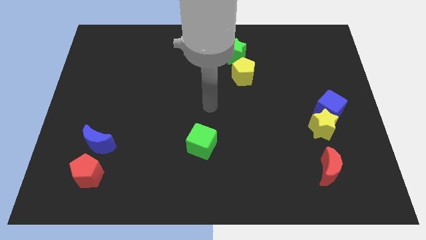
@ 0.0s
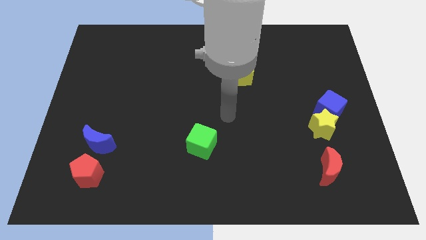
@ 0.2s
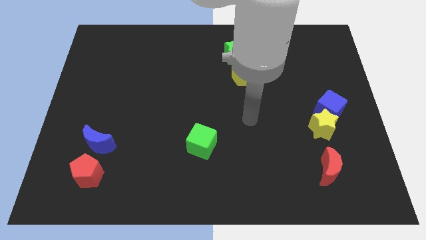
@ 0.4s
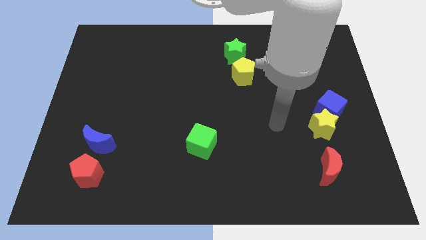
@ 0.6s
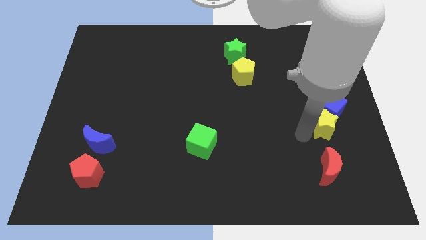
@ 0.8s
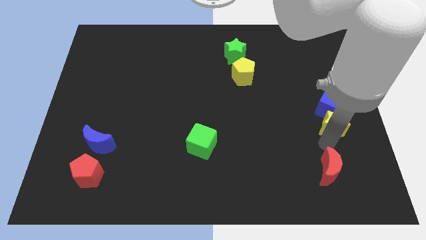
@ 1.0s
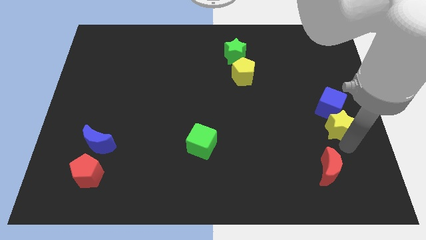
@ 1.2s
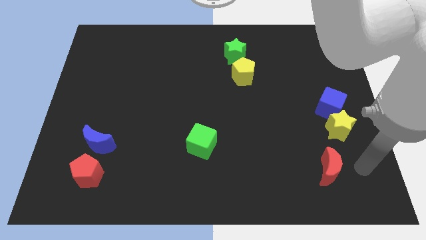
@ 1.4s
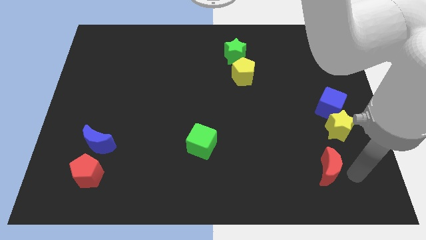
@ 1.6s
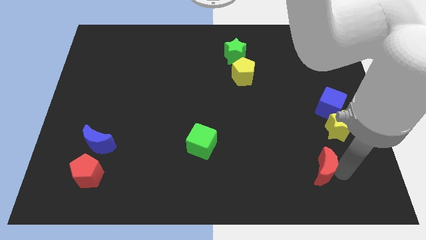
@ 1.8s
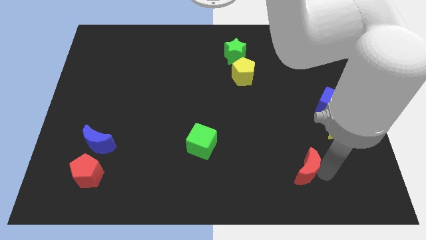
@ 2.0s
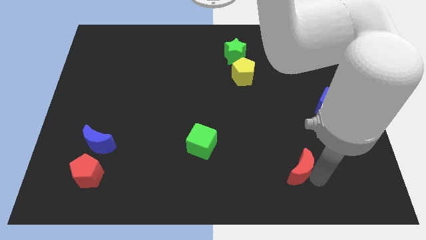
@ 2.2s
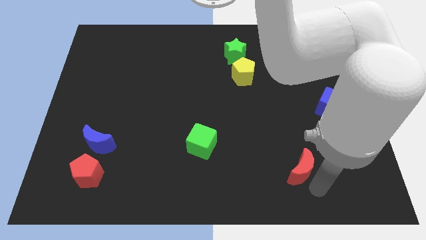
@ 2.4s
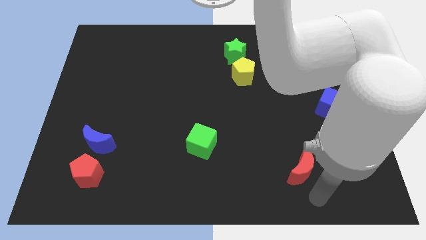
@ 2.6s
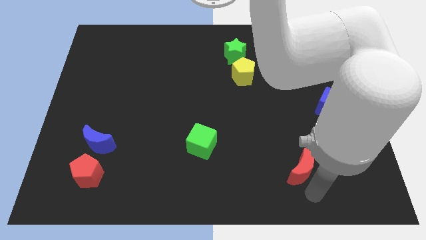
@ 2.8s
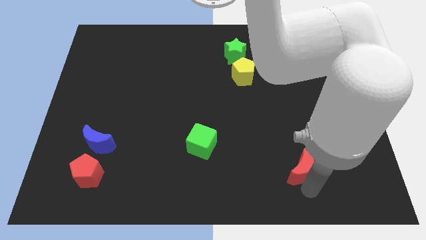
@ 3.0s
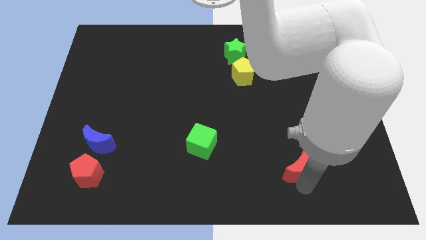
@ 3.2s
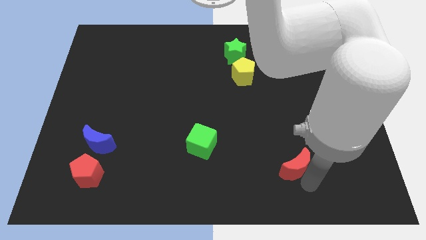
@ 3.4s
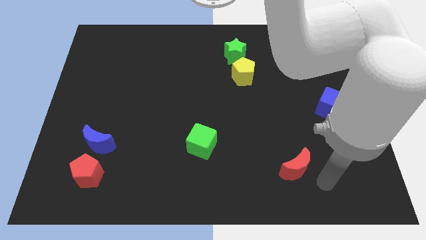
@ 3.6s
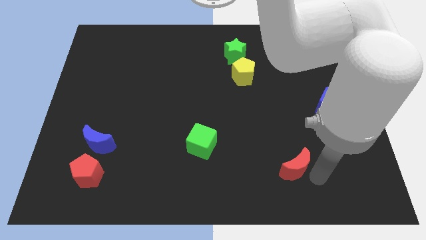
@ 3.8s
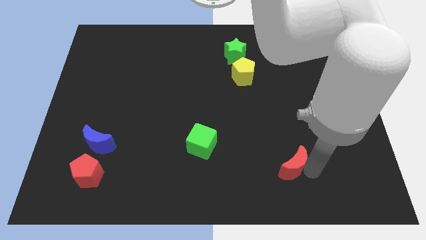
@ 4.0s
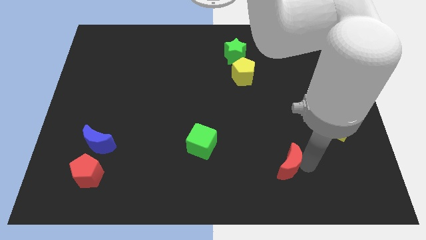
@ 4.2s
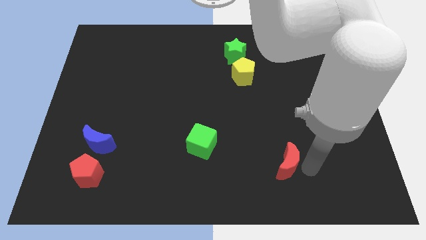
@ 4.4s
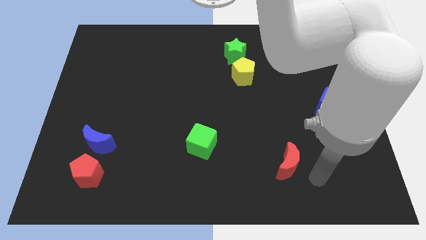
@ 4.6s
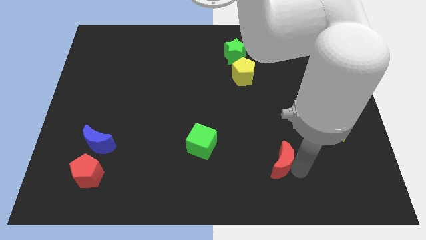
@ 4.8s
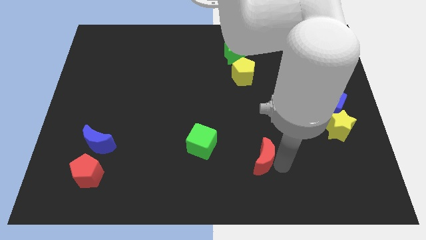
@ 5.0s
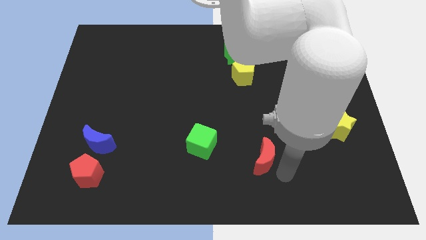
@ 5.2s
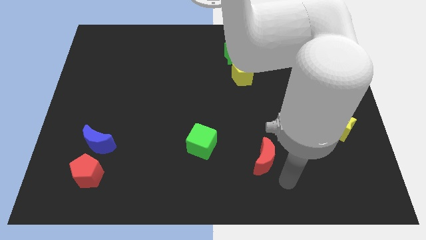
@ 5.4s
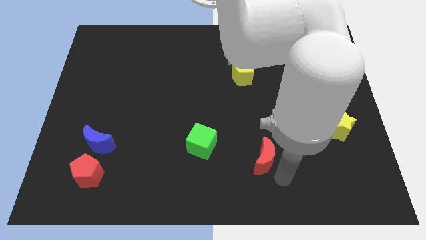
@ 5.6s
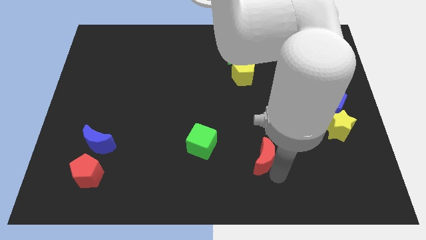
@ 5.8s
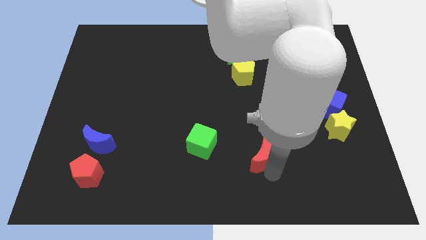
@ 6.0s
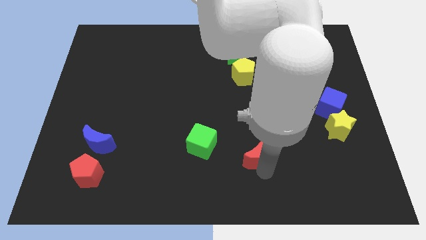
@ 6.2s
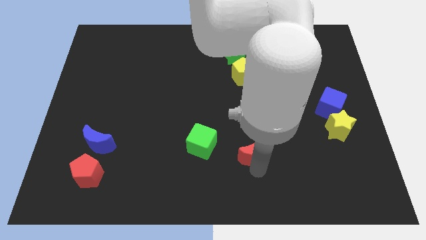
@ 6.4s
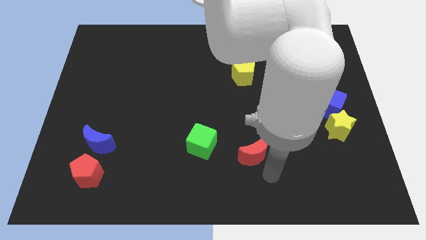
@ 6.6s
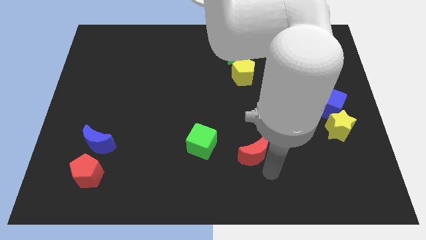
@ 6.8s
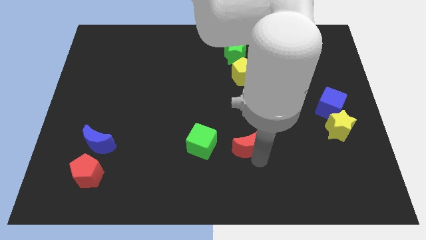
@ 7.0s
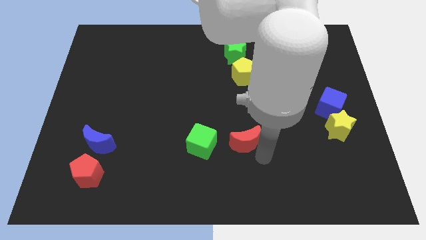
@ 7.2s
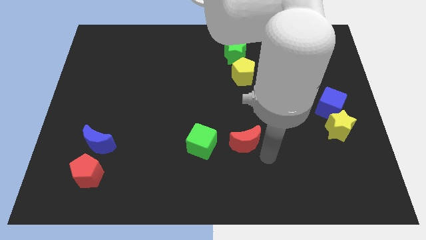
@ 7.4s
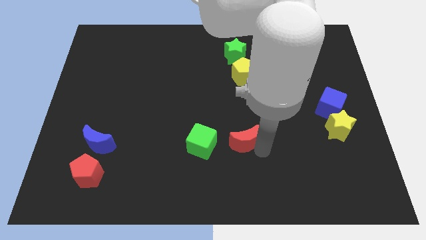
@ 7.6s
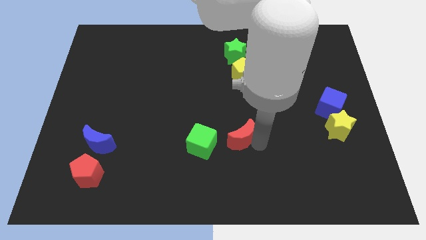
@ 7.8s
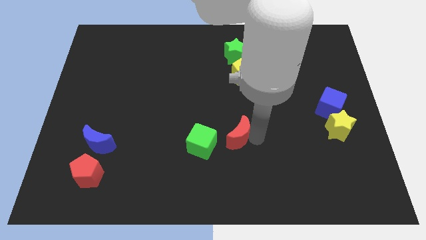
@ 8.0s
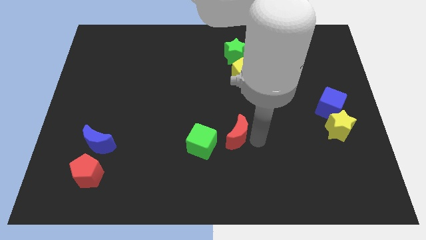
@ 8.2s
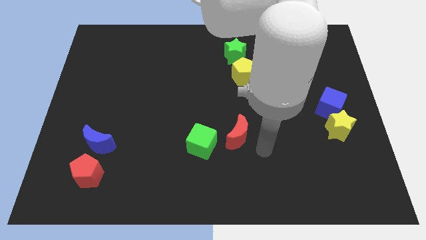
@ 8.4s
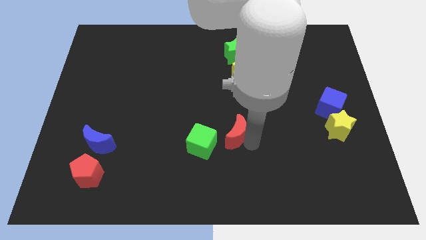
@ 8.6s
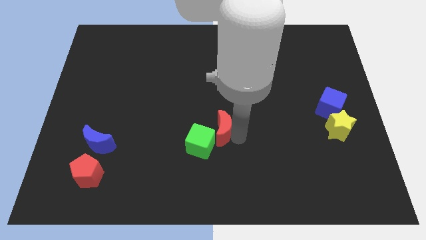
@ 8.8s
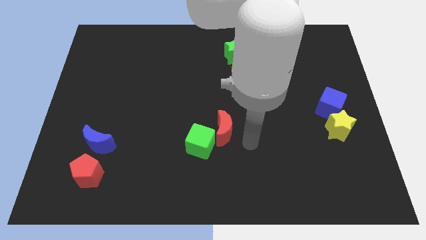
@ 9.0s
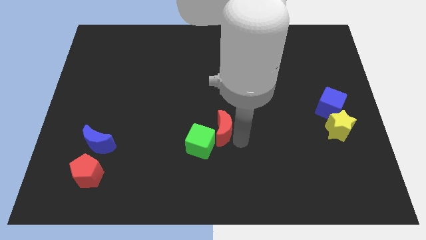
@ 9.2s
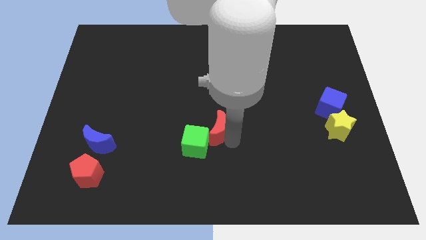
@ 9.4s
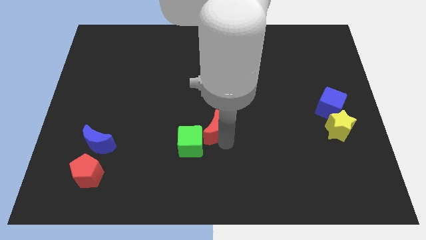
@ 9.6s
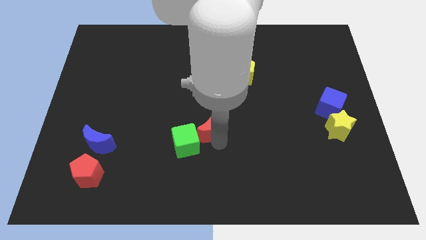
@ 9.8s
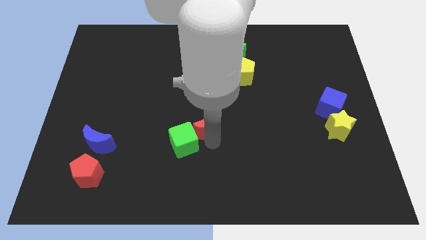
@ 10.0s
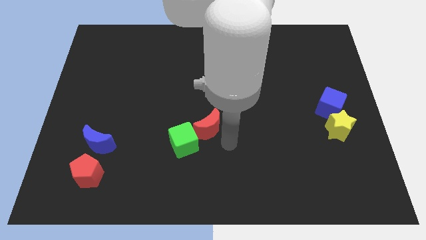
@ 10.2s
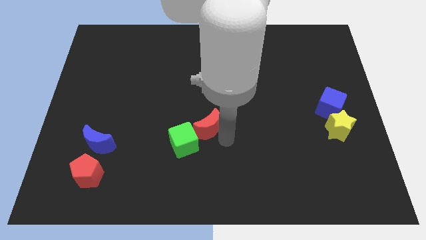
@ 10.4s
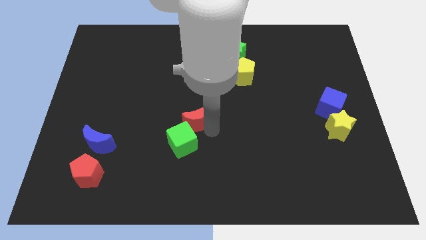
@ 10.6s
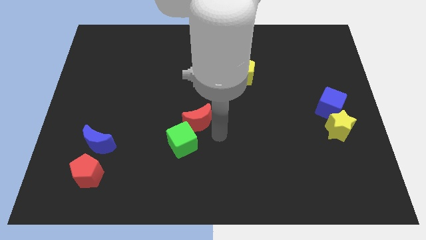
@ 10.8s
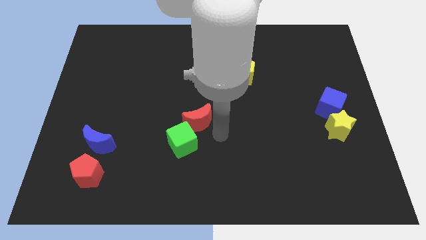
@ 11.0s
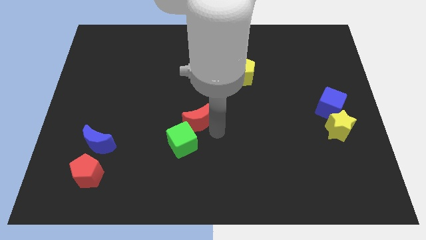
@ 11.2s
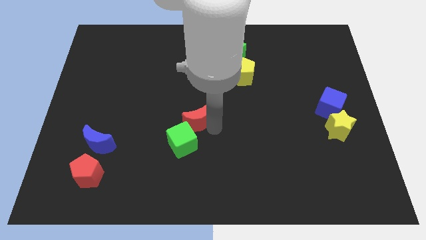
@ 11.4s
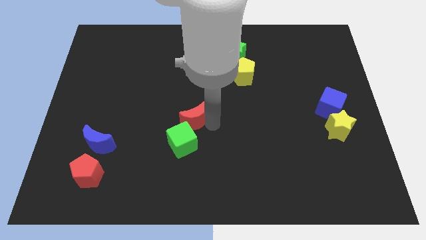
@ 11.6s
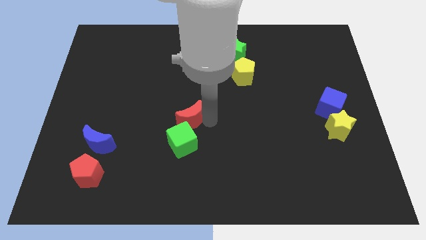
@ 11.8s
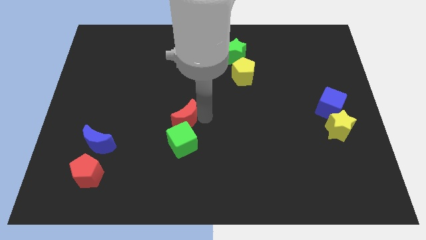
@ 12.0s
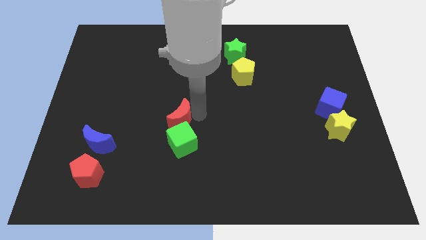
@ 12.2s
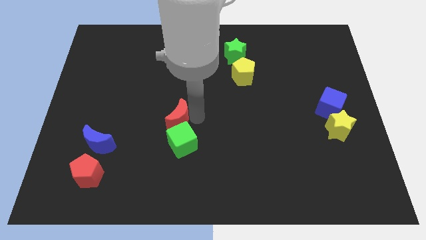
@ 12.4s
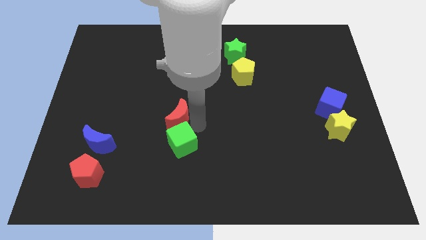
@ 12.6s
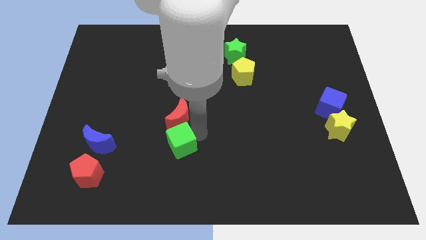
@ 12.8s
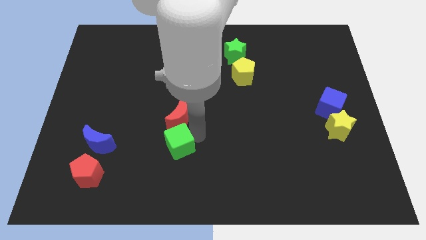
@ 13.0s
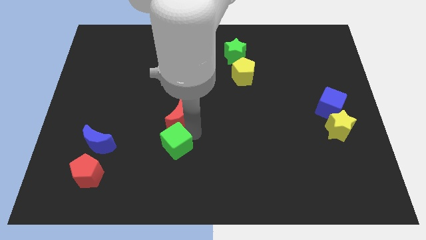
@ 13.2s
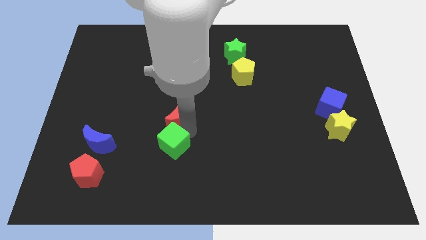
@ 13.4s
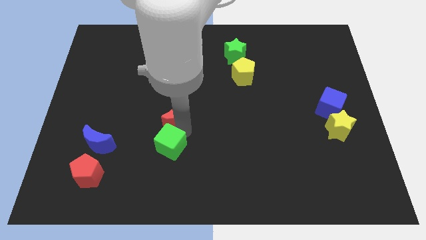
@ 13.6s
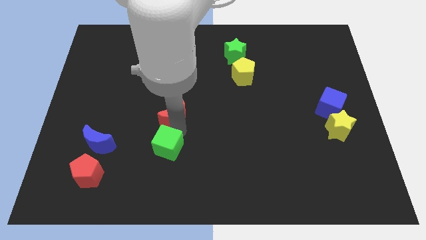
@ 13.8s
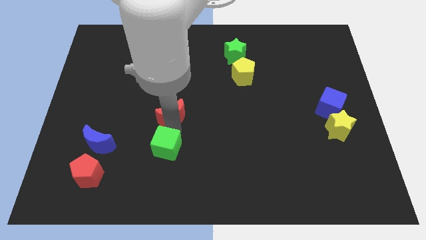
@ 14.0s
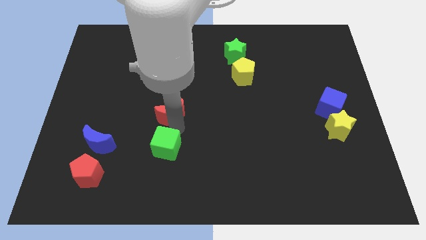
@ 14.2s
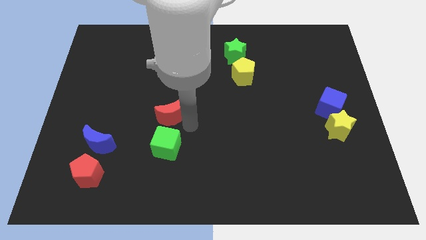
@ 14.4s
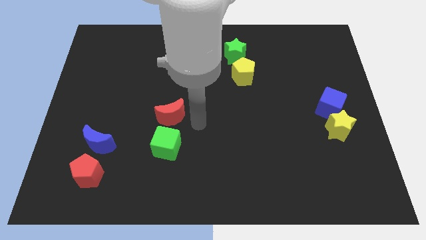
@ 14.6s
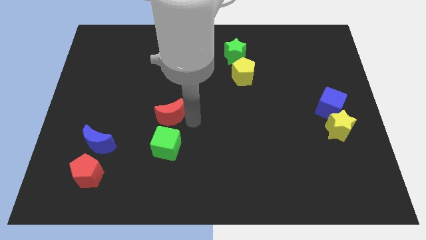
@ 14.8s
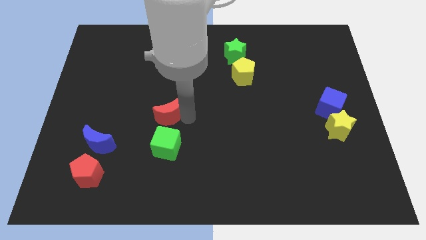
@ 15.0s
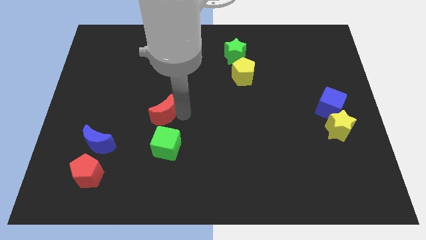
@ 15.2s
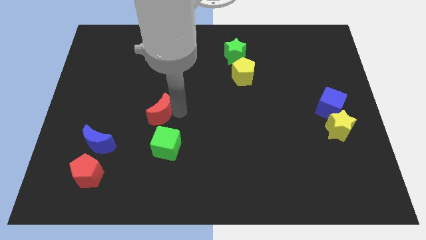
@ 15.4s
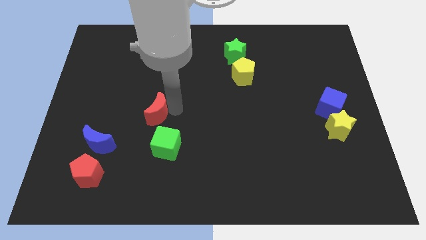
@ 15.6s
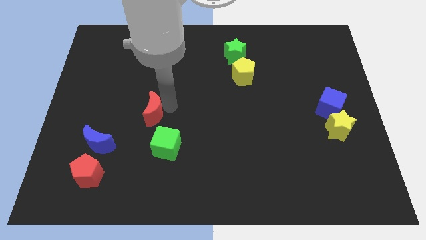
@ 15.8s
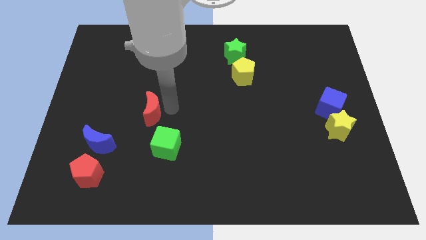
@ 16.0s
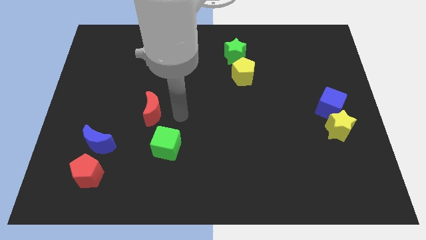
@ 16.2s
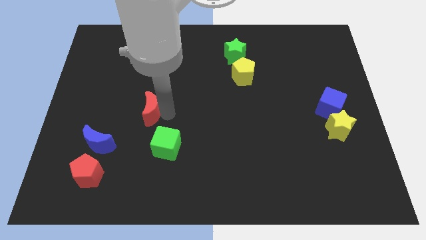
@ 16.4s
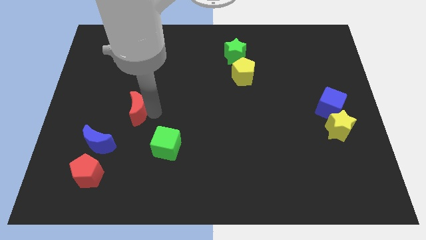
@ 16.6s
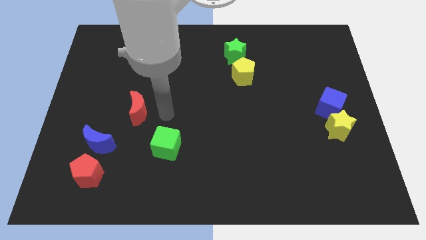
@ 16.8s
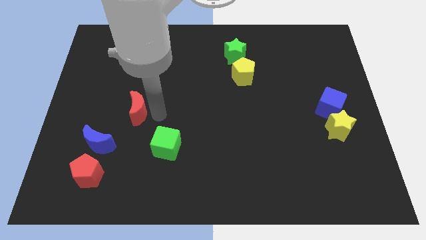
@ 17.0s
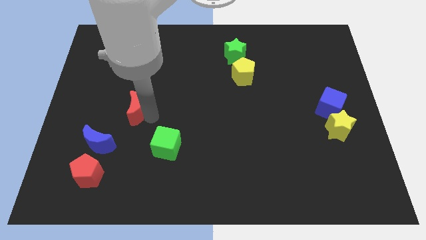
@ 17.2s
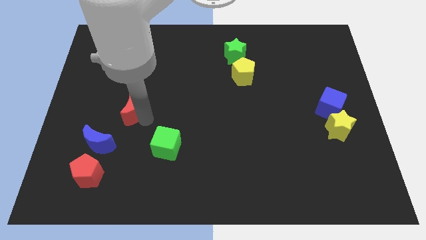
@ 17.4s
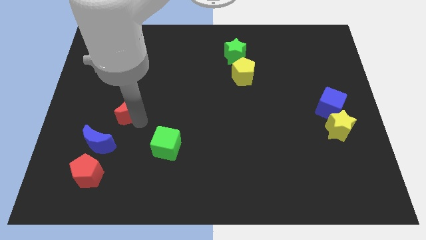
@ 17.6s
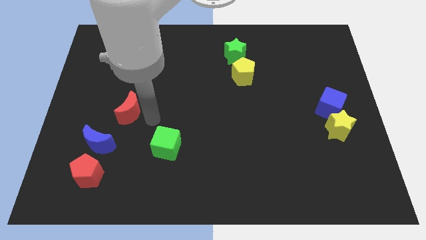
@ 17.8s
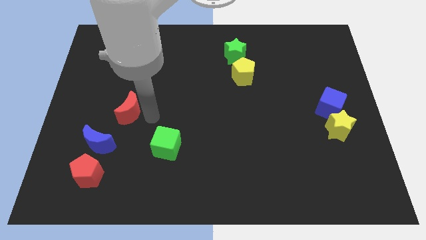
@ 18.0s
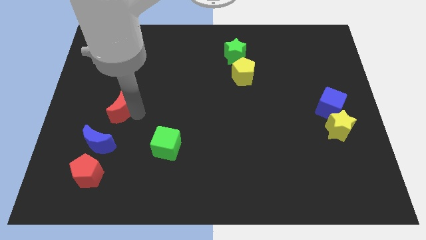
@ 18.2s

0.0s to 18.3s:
slide the red moon to the top side of the blue moon
